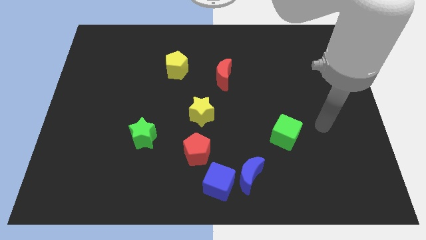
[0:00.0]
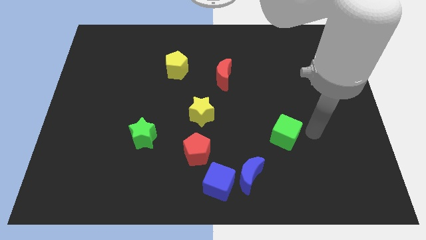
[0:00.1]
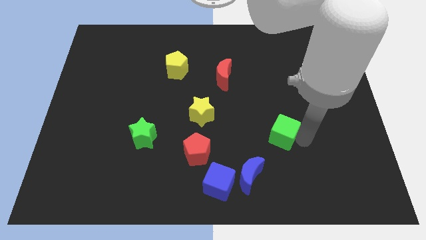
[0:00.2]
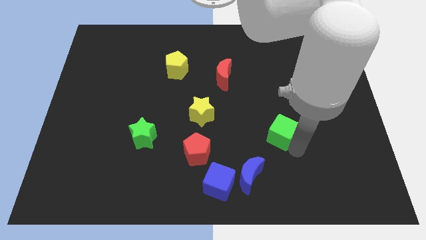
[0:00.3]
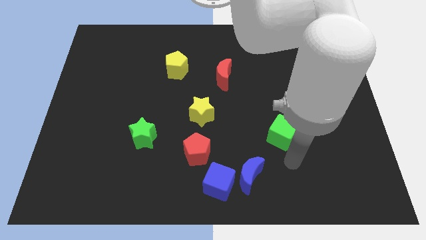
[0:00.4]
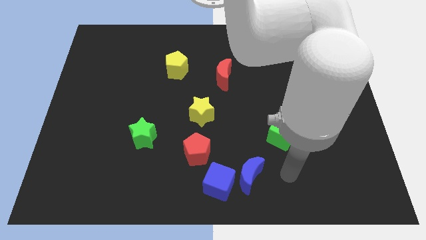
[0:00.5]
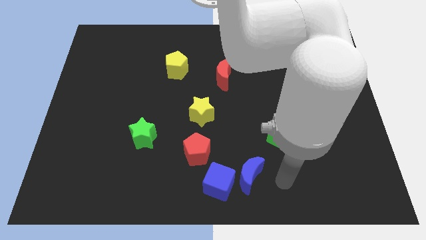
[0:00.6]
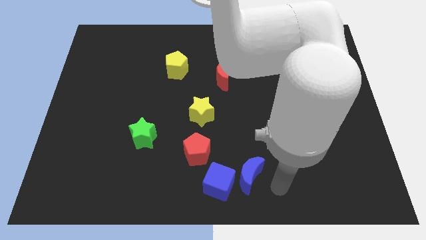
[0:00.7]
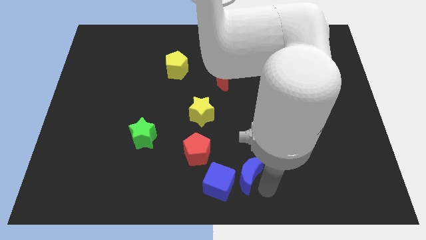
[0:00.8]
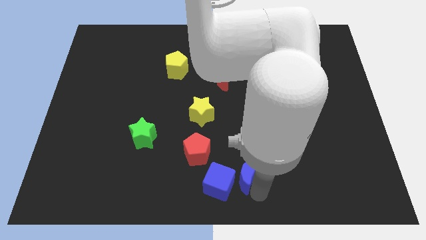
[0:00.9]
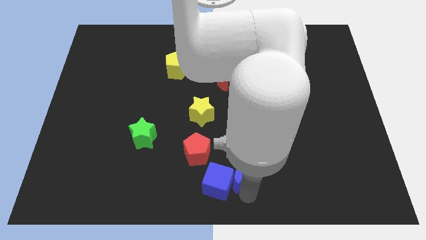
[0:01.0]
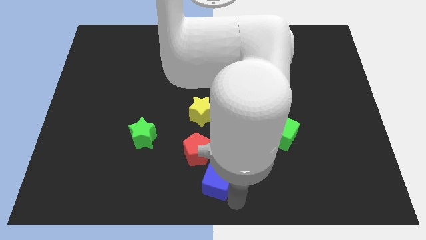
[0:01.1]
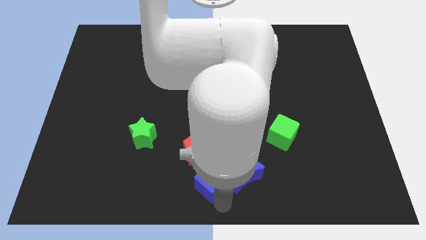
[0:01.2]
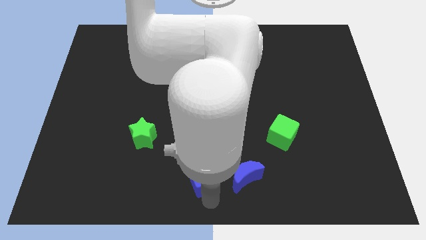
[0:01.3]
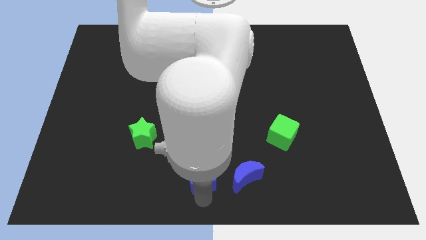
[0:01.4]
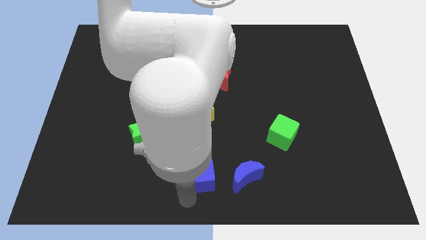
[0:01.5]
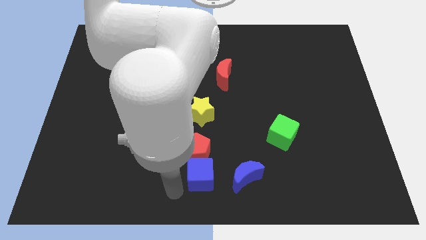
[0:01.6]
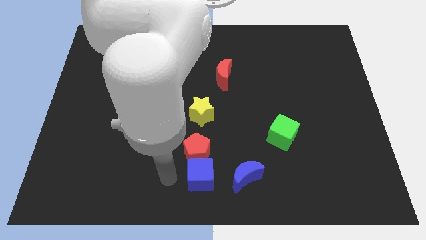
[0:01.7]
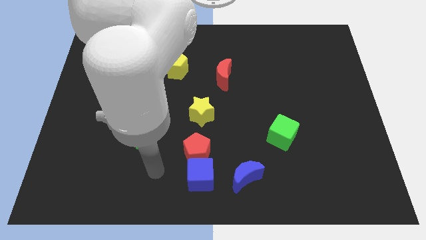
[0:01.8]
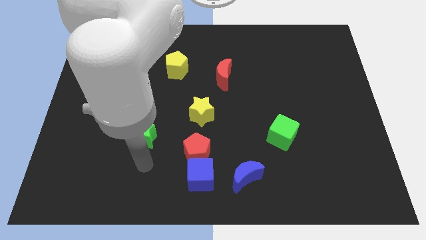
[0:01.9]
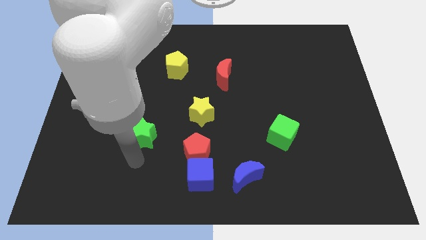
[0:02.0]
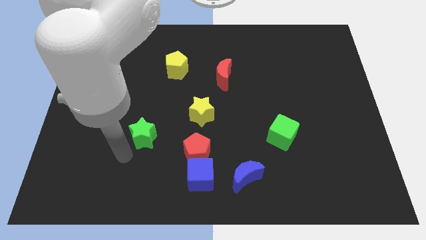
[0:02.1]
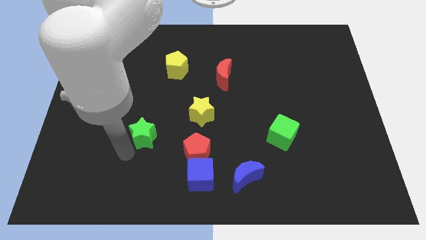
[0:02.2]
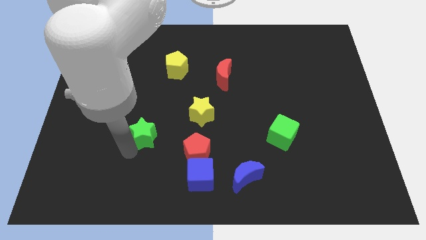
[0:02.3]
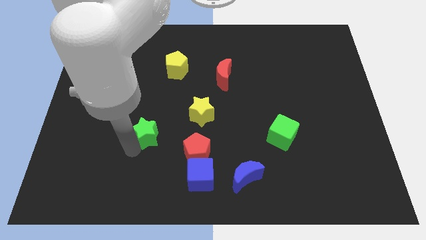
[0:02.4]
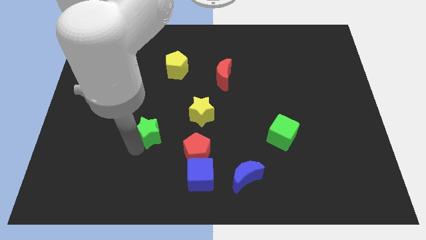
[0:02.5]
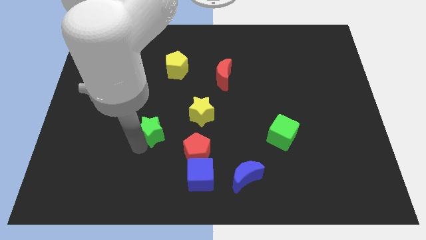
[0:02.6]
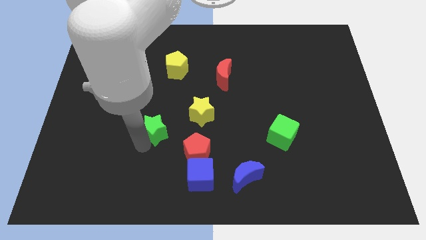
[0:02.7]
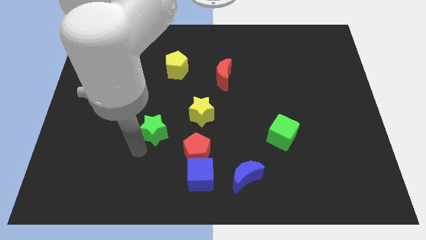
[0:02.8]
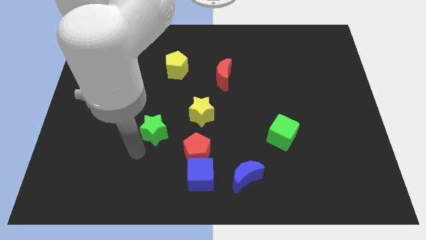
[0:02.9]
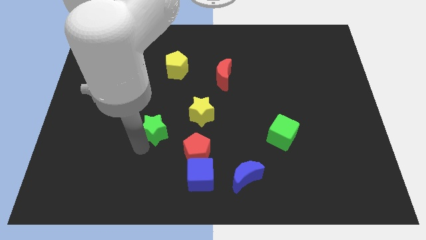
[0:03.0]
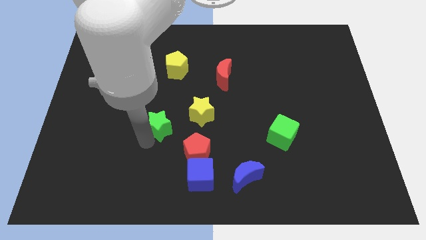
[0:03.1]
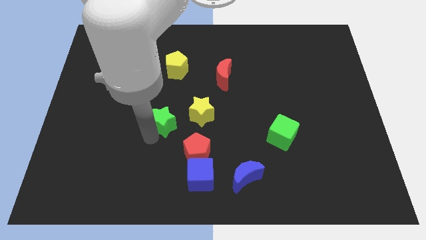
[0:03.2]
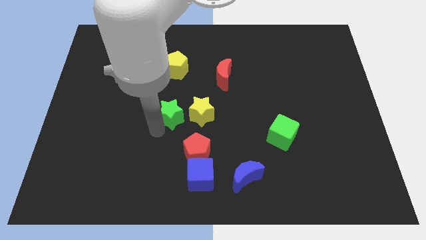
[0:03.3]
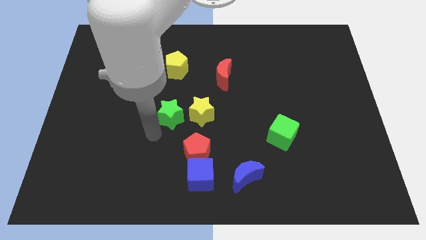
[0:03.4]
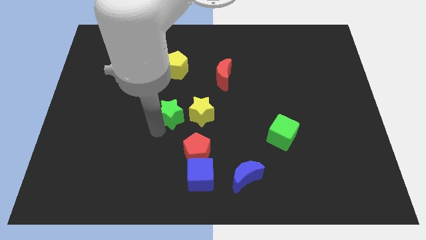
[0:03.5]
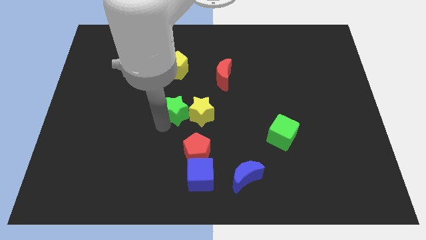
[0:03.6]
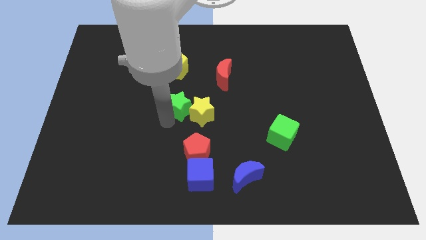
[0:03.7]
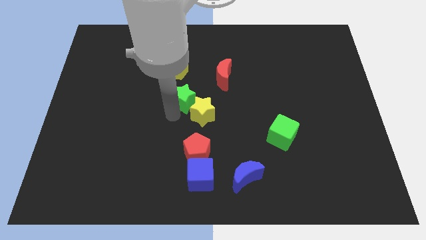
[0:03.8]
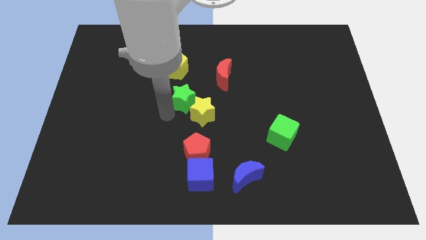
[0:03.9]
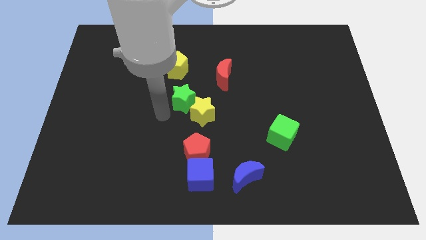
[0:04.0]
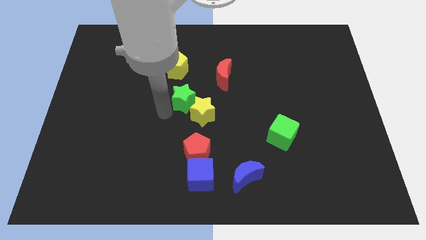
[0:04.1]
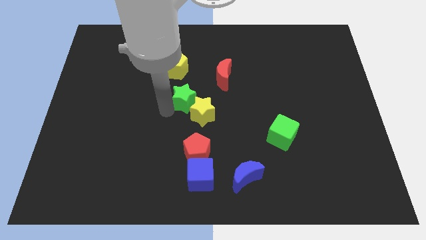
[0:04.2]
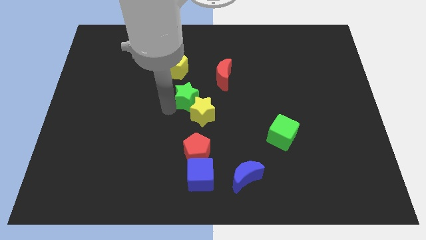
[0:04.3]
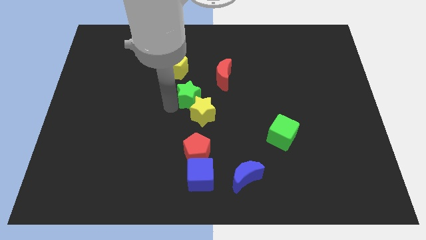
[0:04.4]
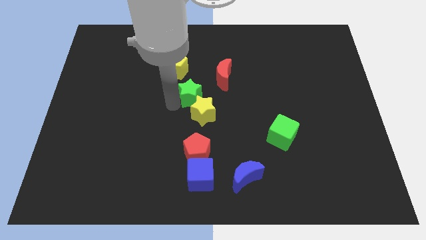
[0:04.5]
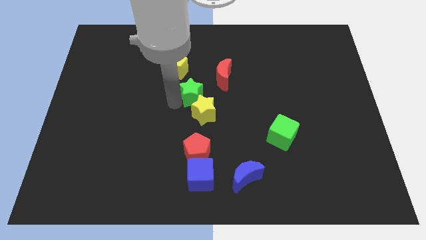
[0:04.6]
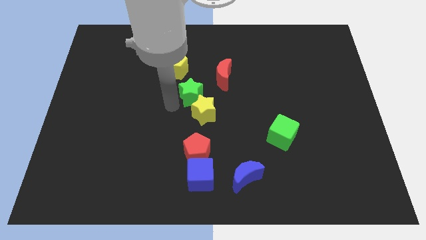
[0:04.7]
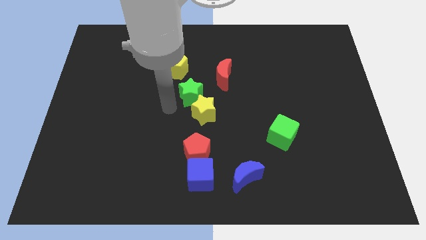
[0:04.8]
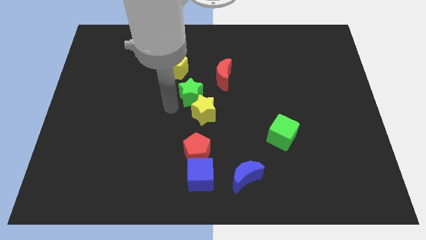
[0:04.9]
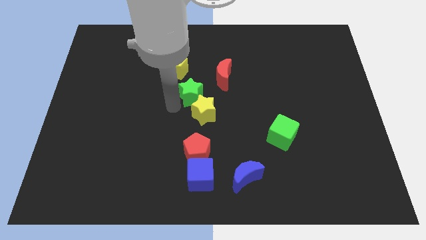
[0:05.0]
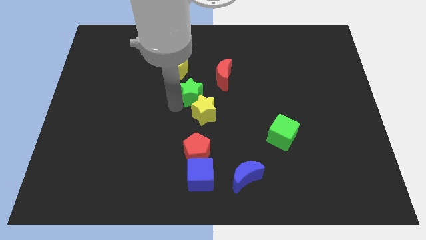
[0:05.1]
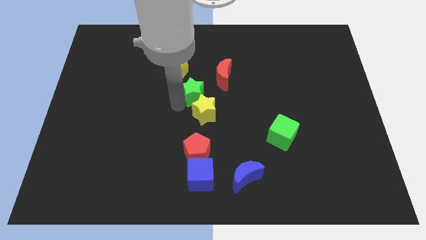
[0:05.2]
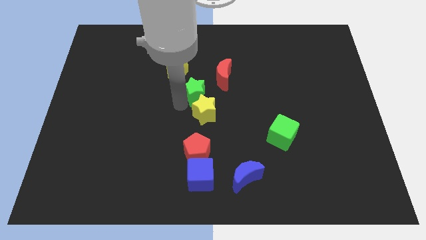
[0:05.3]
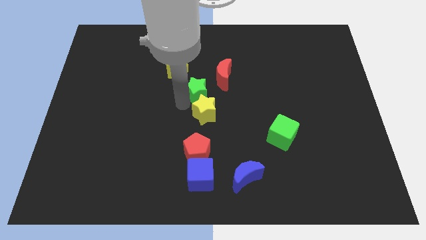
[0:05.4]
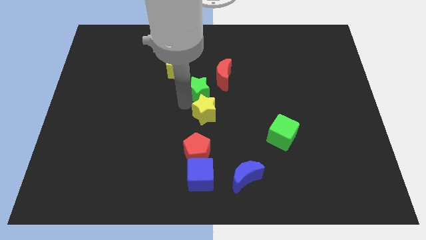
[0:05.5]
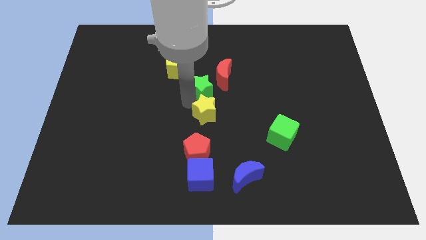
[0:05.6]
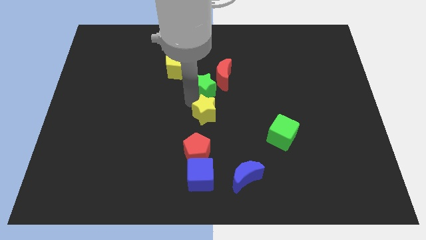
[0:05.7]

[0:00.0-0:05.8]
put the green star towards the red moon

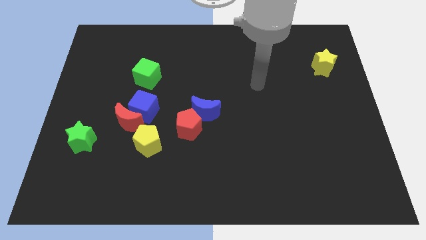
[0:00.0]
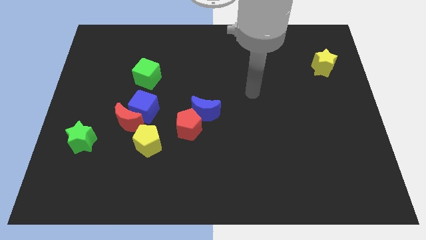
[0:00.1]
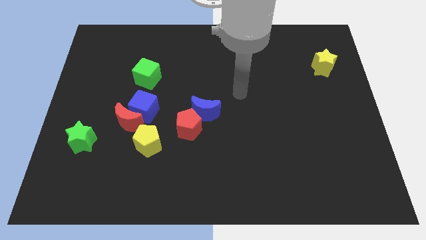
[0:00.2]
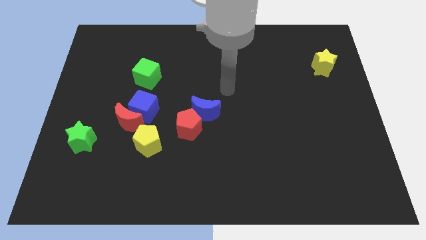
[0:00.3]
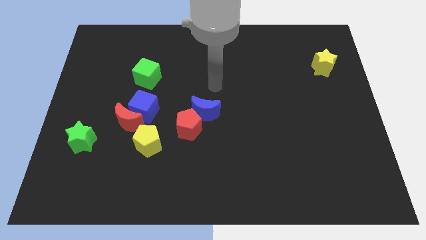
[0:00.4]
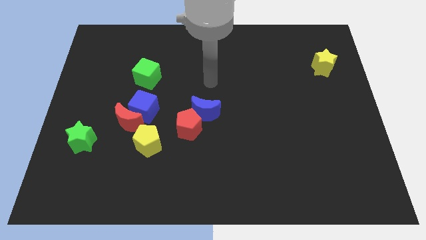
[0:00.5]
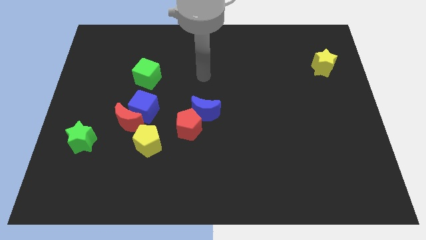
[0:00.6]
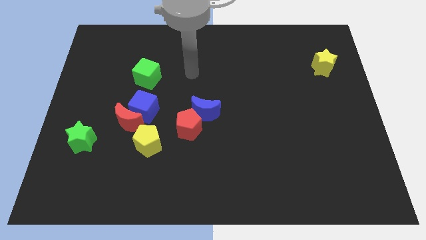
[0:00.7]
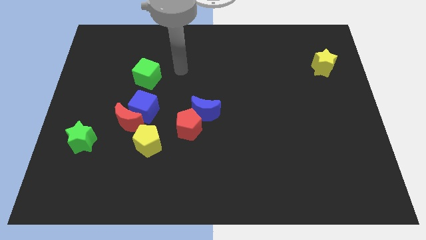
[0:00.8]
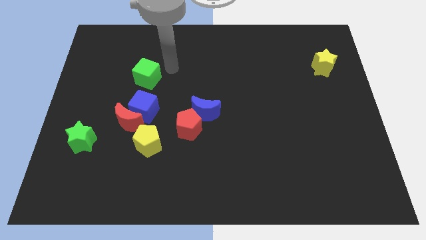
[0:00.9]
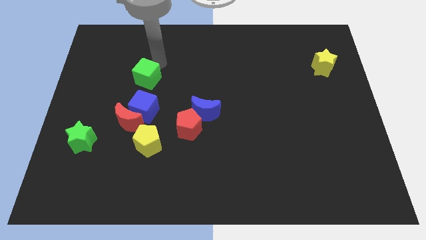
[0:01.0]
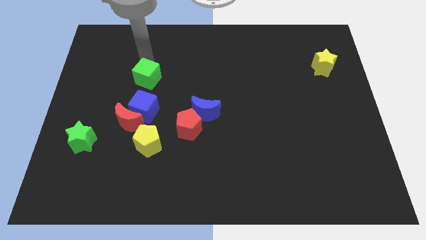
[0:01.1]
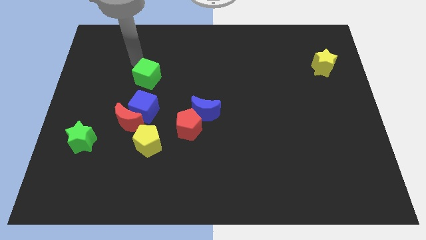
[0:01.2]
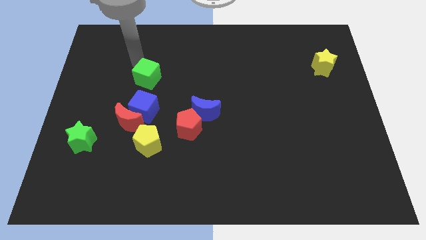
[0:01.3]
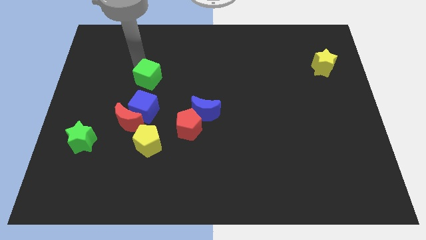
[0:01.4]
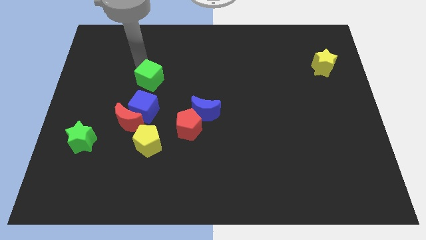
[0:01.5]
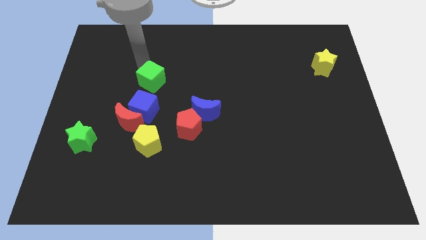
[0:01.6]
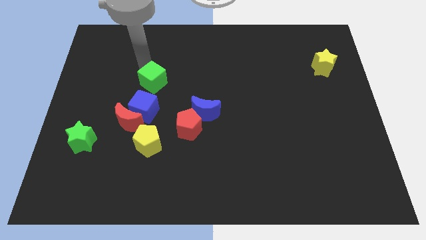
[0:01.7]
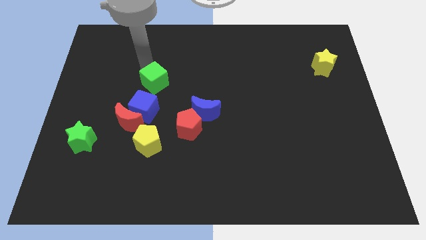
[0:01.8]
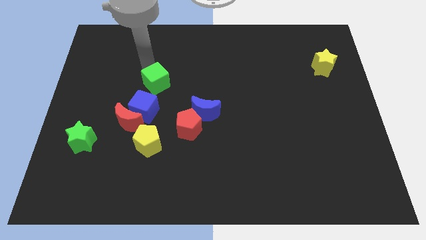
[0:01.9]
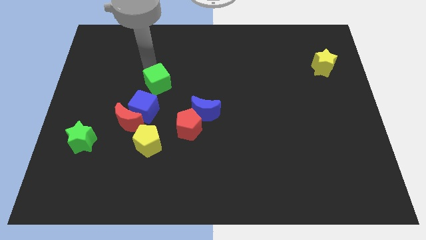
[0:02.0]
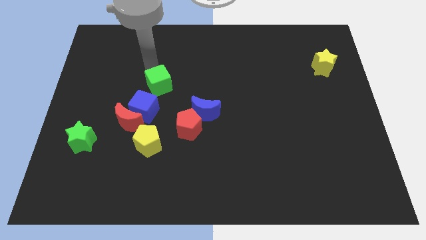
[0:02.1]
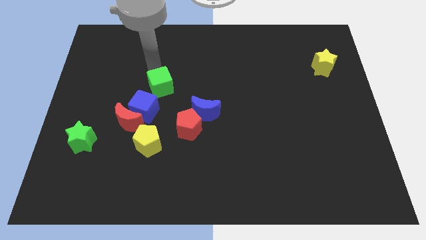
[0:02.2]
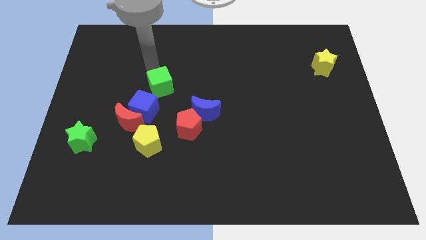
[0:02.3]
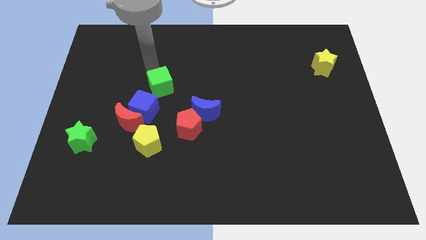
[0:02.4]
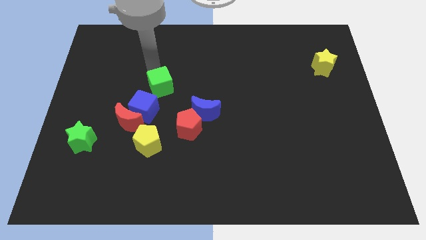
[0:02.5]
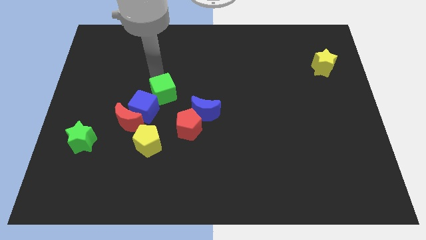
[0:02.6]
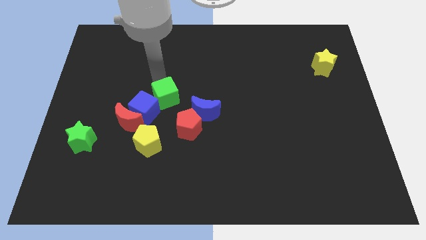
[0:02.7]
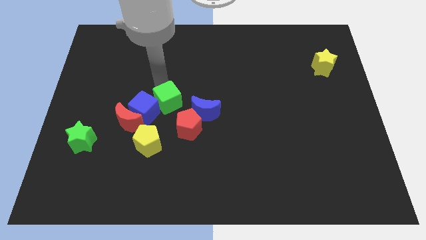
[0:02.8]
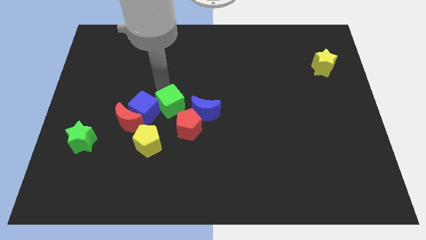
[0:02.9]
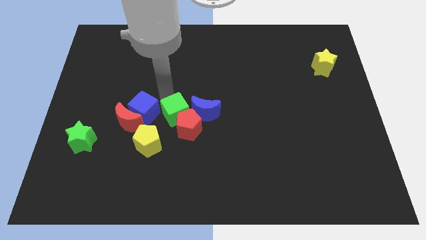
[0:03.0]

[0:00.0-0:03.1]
slide the green cube towards the red pentagon
